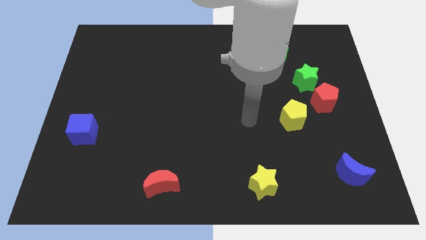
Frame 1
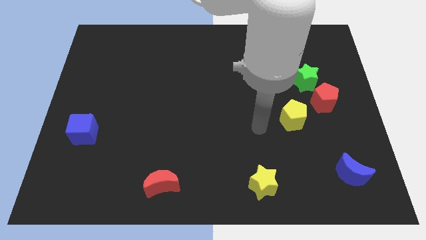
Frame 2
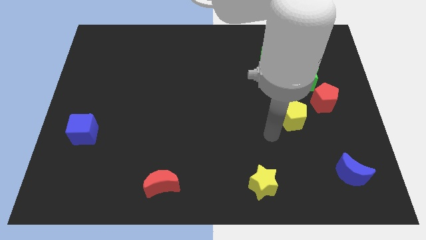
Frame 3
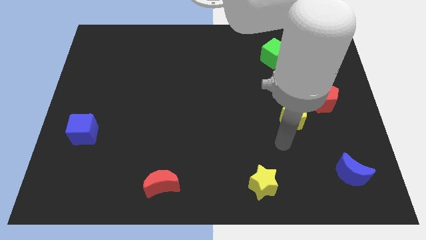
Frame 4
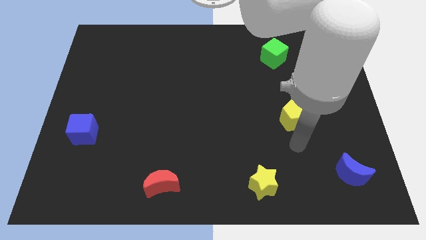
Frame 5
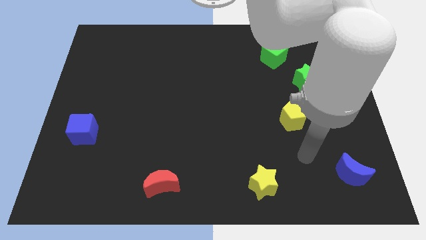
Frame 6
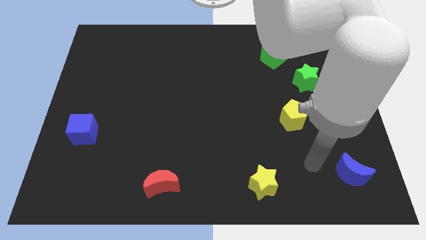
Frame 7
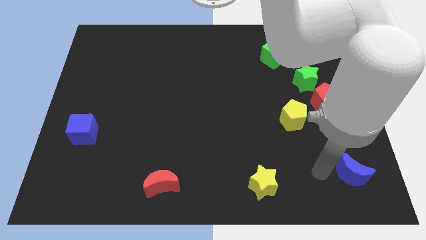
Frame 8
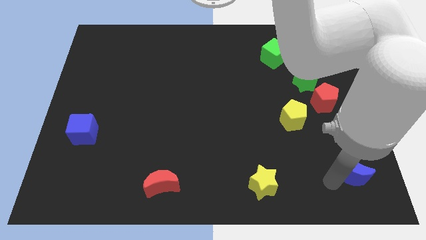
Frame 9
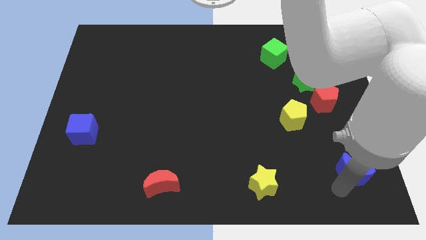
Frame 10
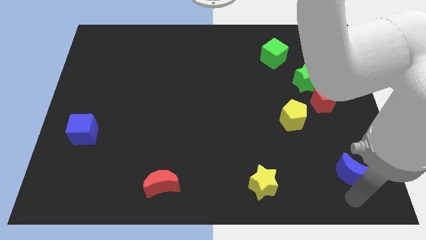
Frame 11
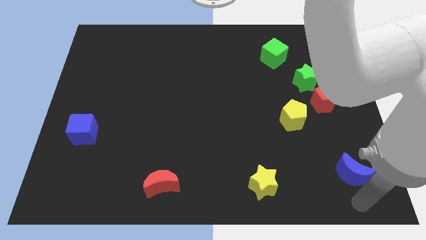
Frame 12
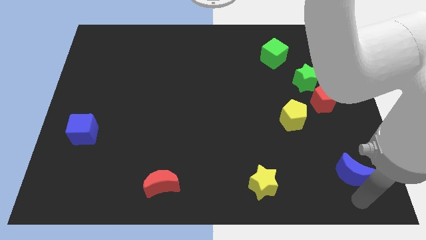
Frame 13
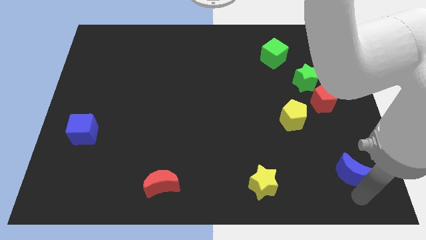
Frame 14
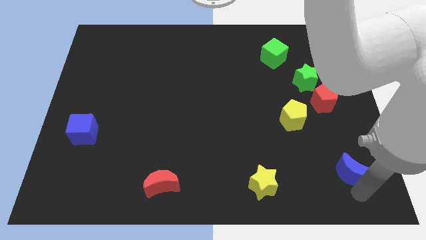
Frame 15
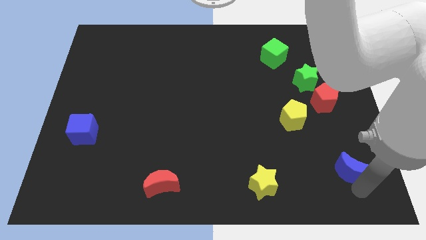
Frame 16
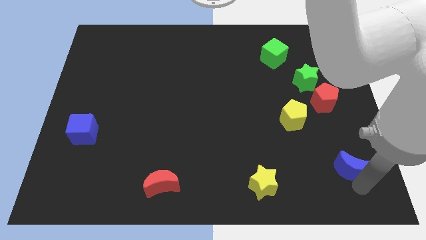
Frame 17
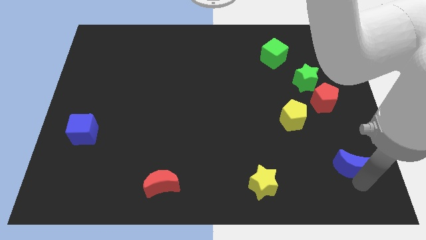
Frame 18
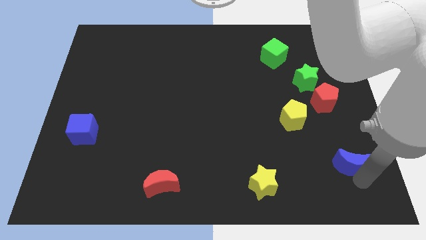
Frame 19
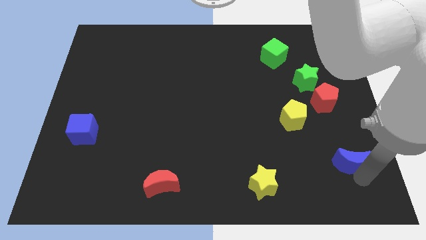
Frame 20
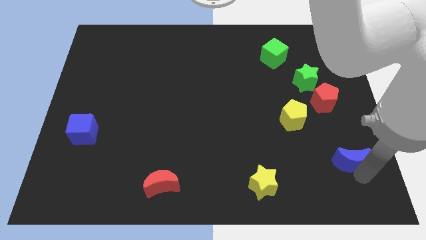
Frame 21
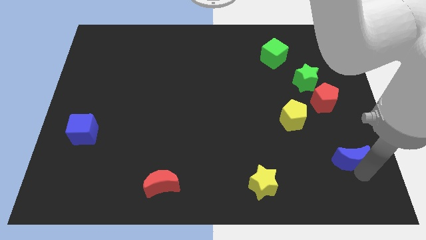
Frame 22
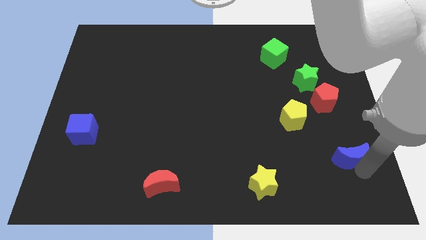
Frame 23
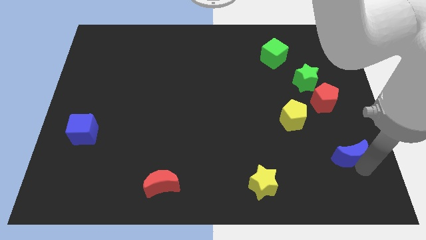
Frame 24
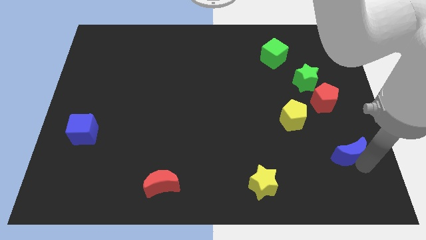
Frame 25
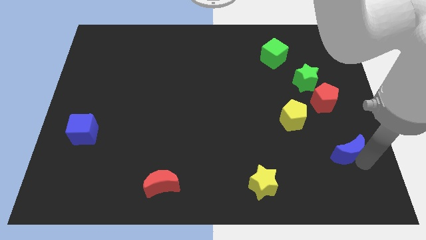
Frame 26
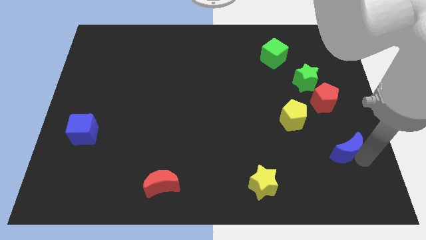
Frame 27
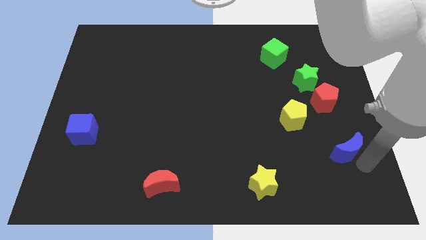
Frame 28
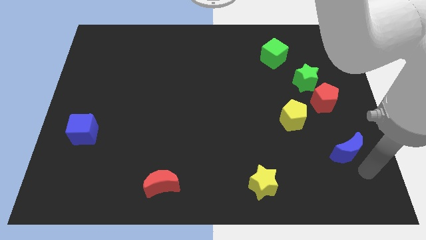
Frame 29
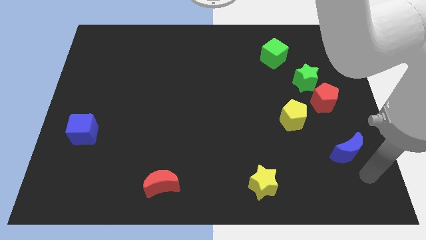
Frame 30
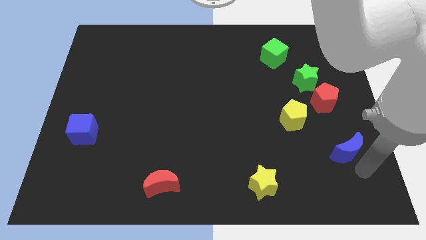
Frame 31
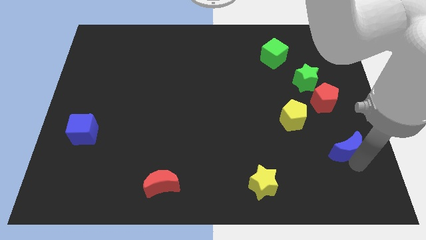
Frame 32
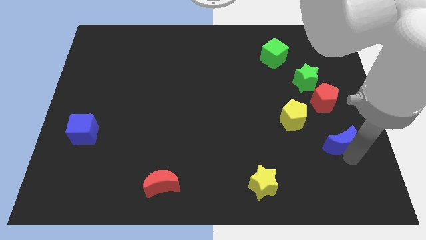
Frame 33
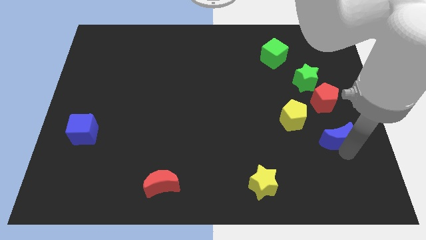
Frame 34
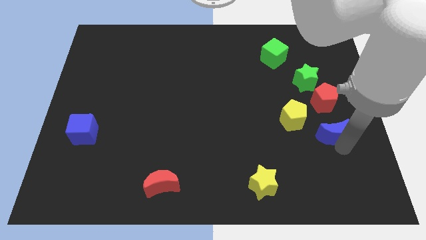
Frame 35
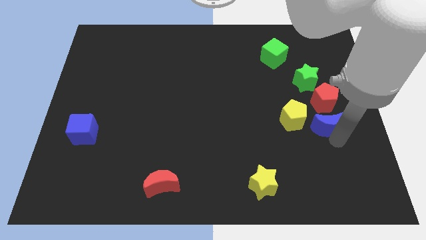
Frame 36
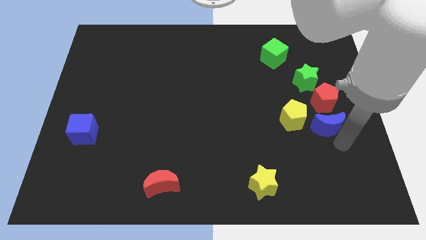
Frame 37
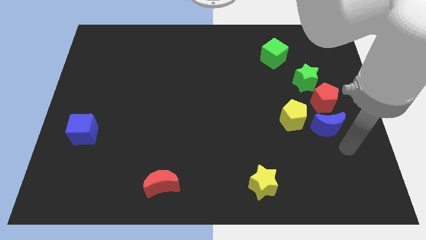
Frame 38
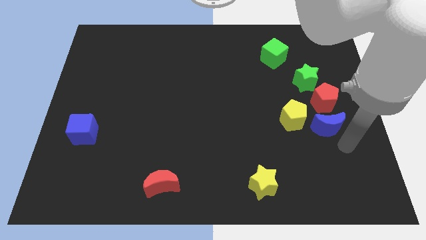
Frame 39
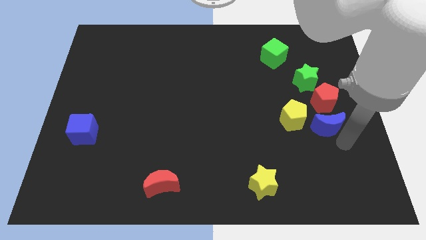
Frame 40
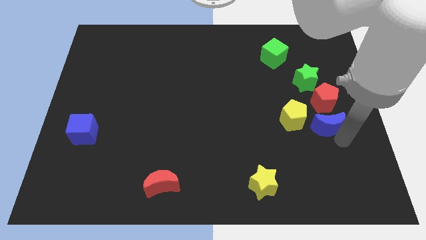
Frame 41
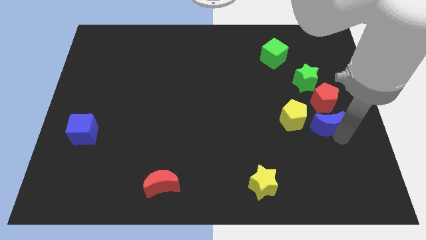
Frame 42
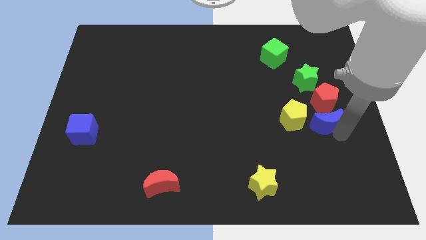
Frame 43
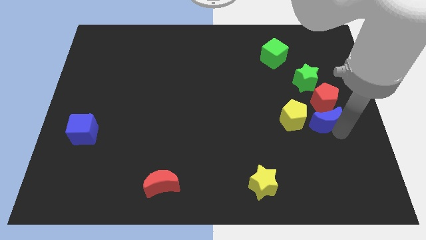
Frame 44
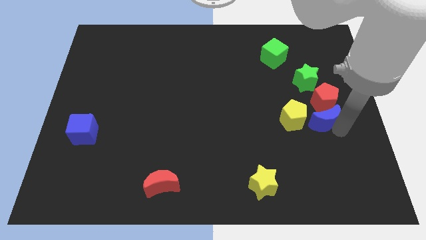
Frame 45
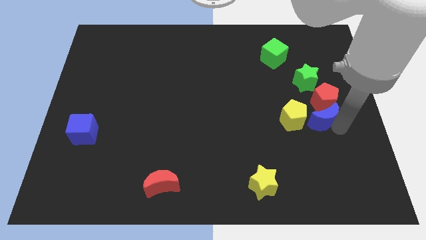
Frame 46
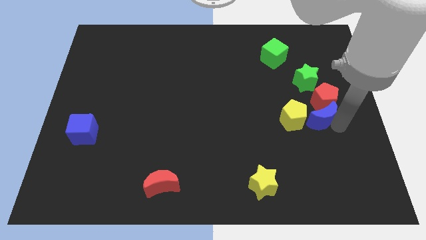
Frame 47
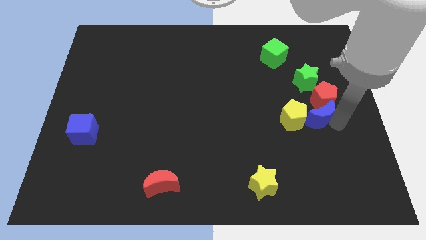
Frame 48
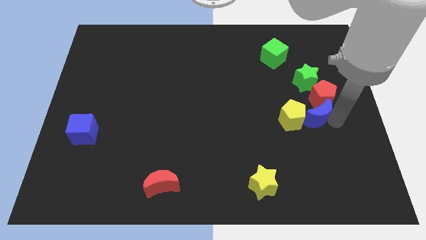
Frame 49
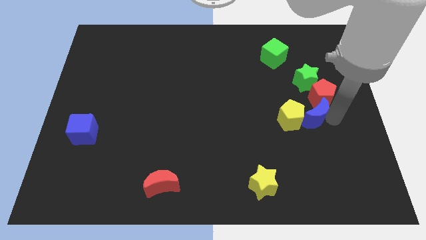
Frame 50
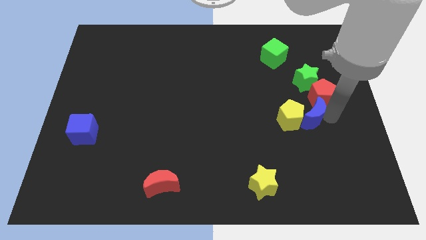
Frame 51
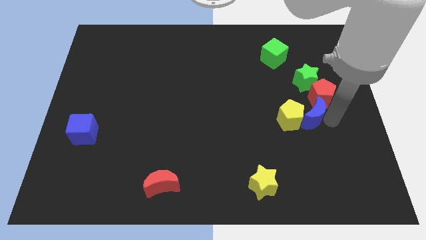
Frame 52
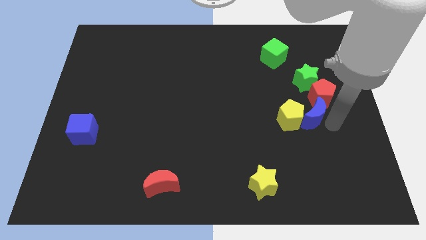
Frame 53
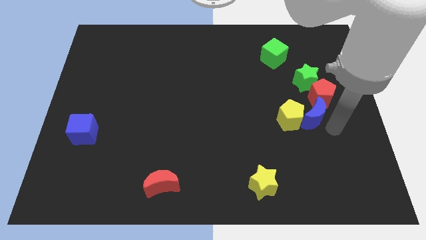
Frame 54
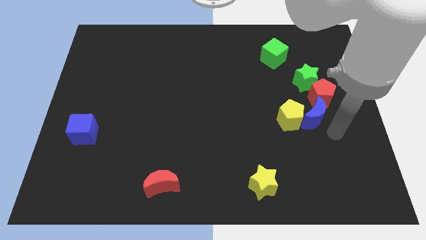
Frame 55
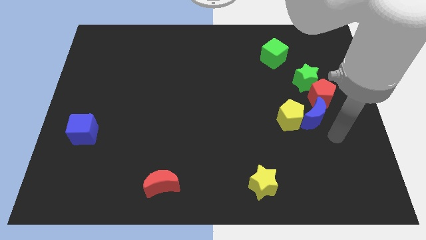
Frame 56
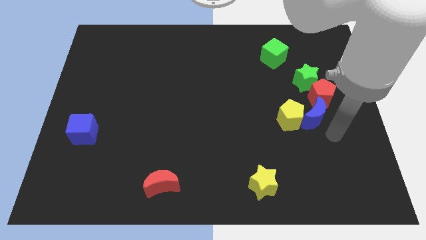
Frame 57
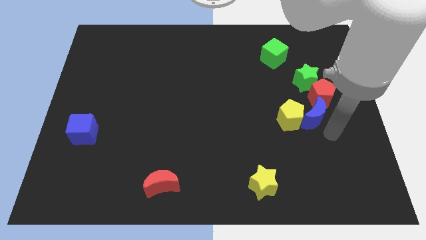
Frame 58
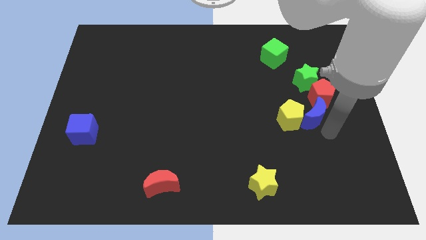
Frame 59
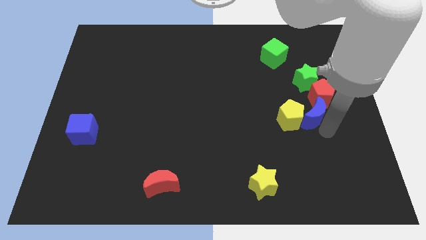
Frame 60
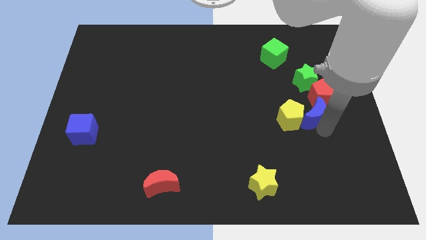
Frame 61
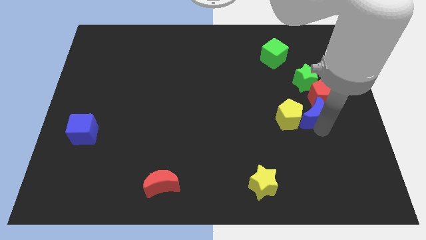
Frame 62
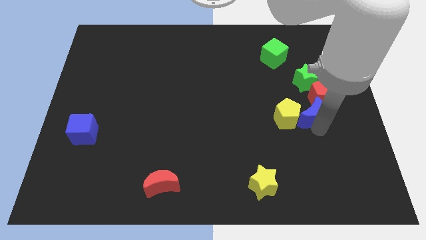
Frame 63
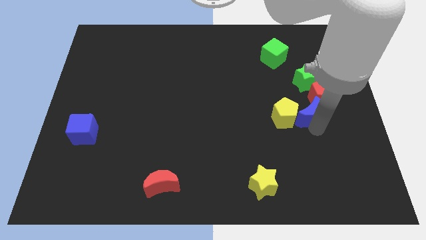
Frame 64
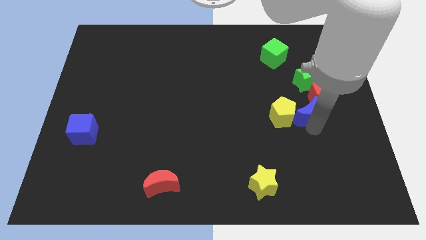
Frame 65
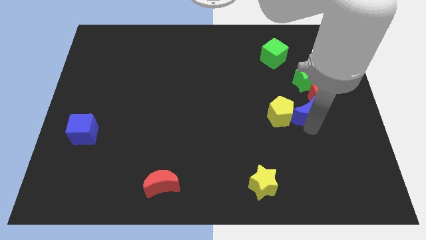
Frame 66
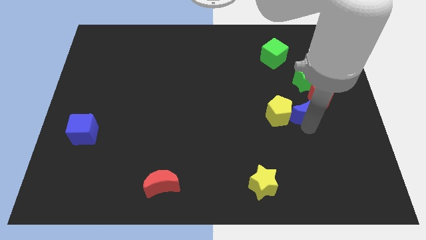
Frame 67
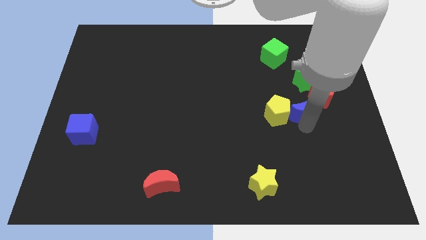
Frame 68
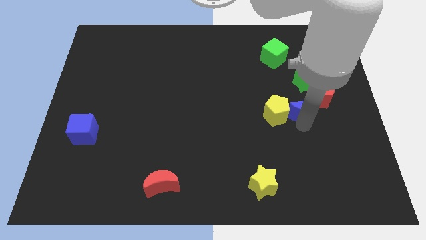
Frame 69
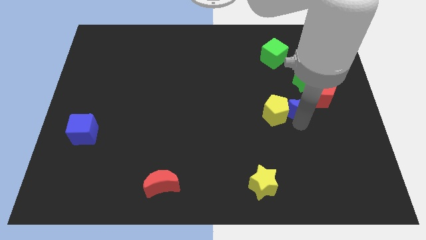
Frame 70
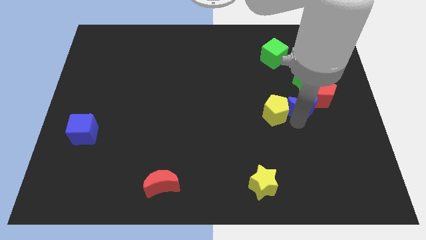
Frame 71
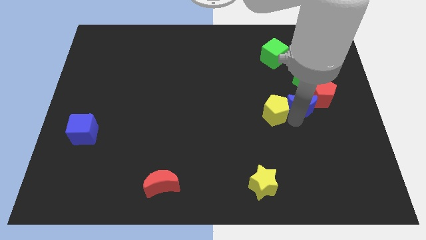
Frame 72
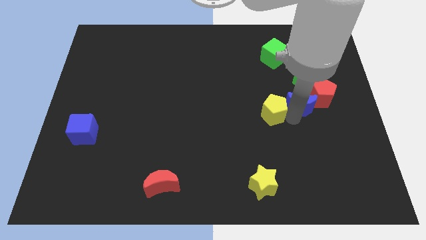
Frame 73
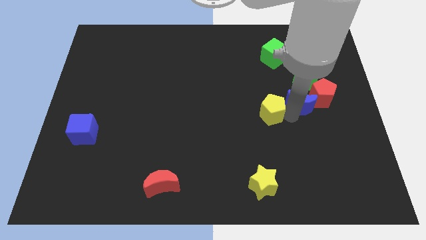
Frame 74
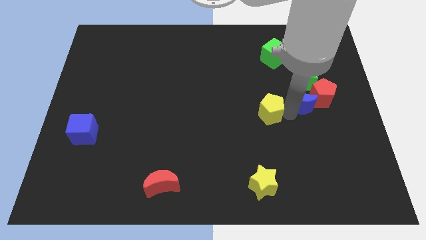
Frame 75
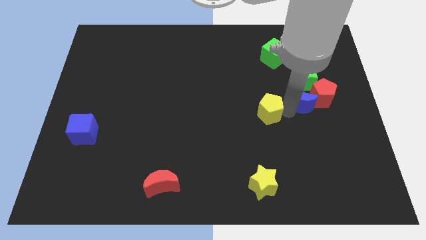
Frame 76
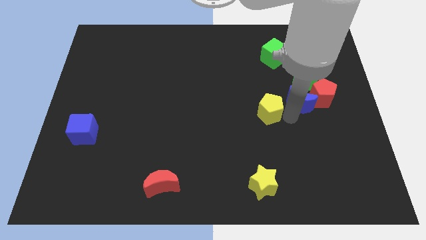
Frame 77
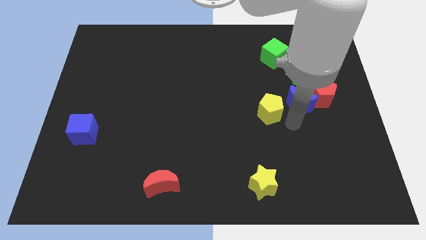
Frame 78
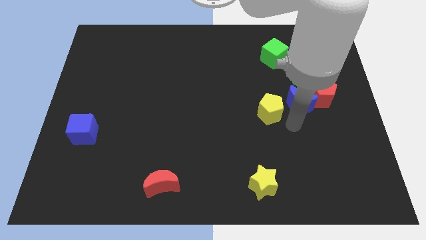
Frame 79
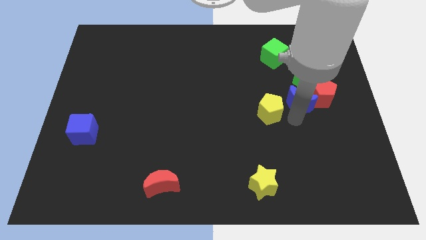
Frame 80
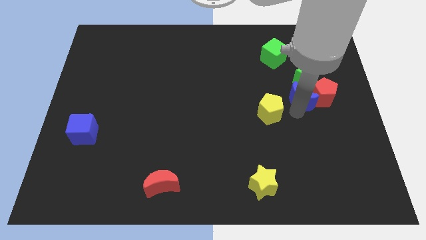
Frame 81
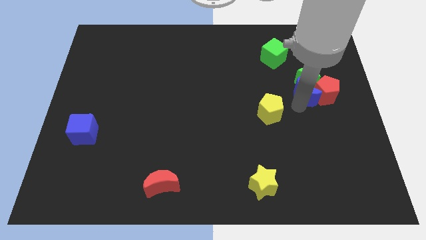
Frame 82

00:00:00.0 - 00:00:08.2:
move the blue moon close to the green star
